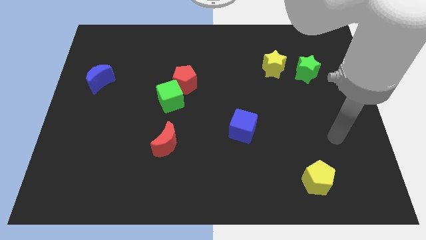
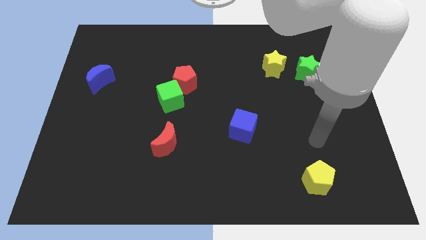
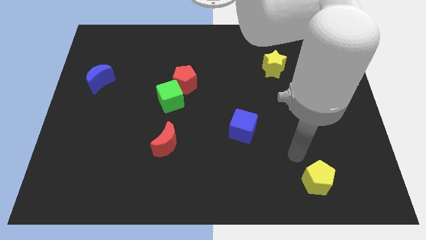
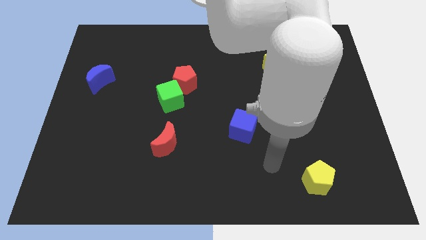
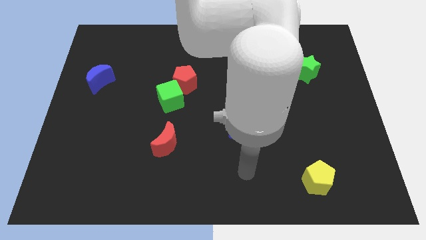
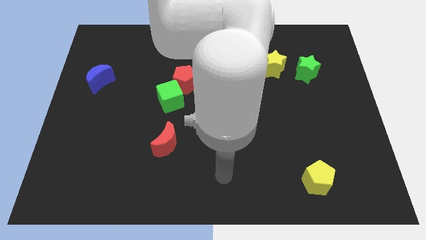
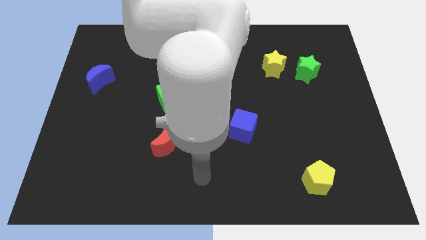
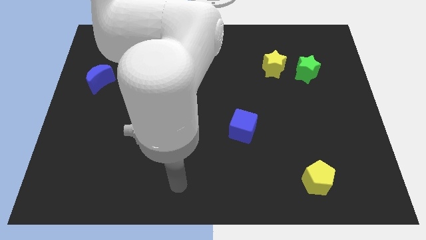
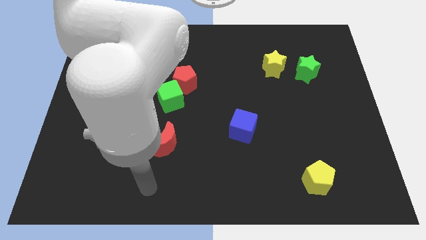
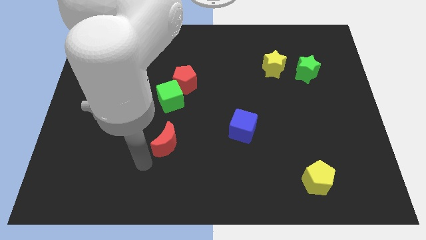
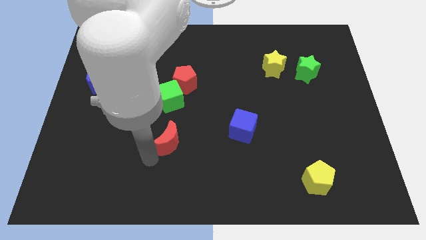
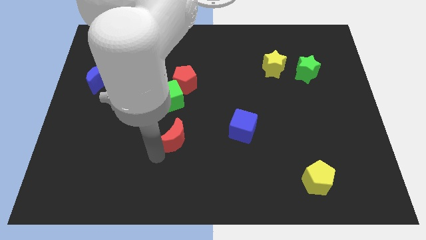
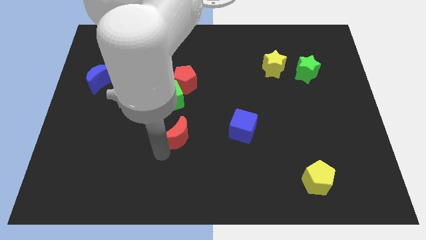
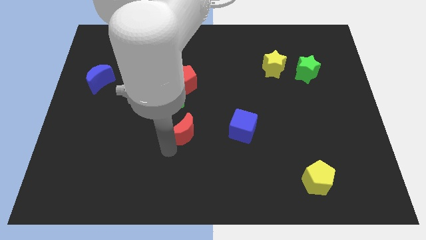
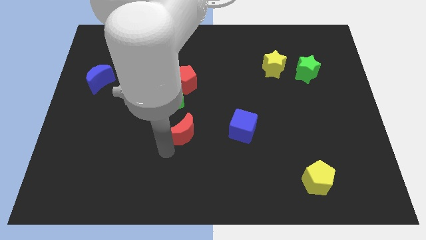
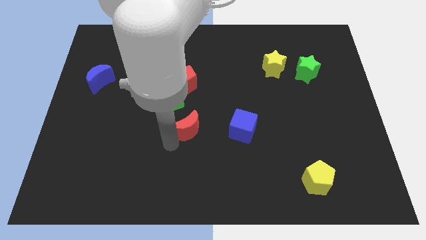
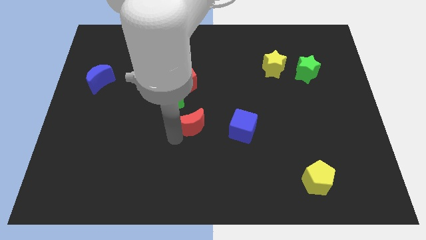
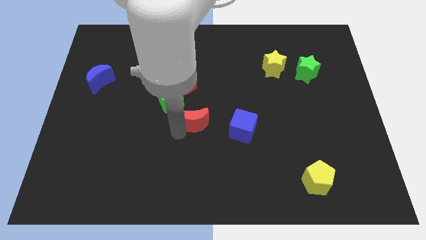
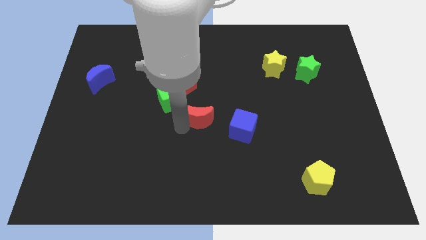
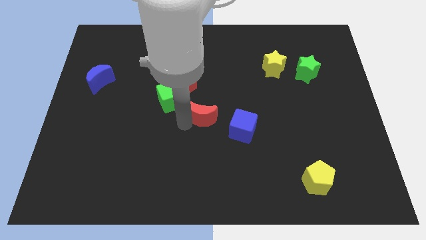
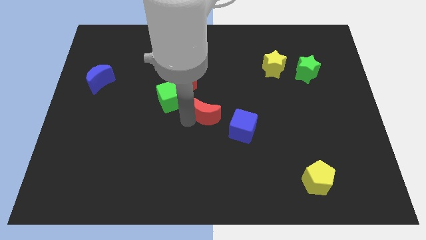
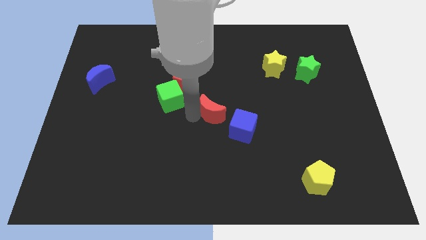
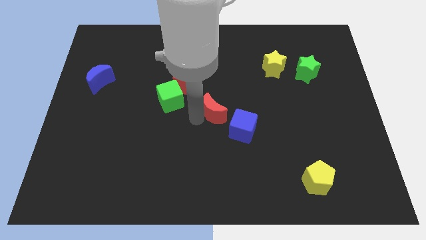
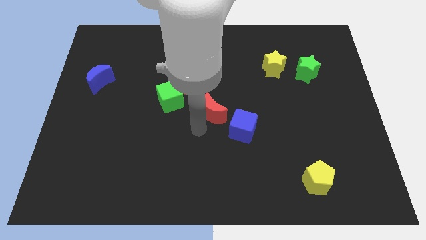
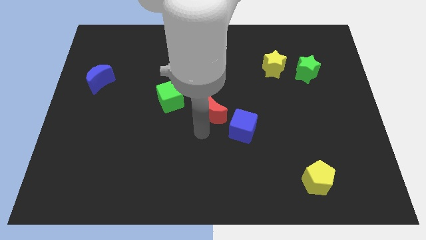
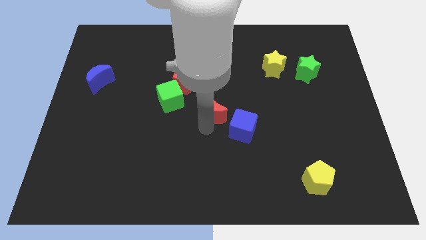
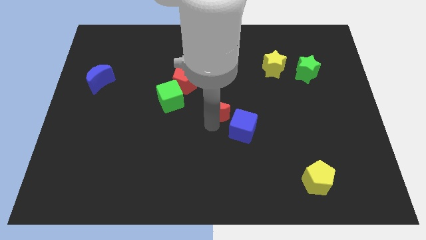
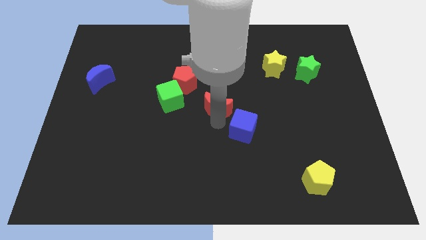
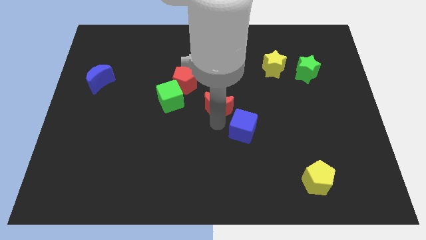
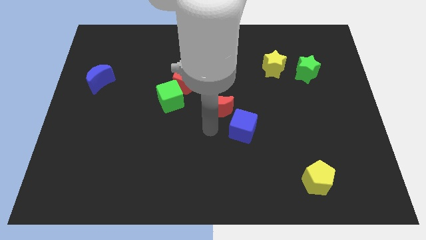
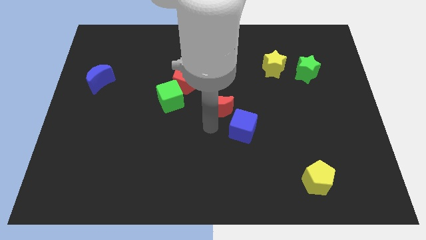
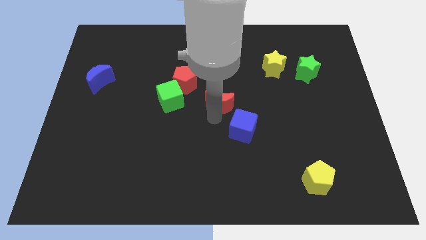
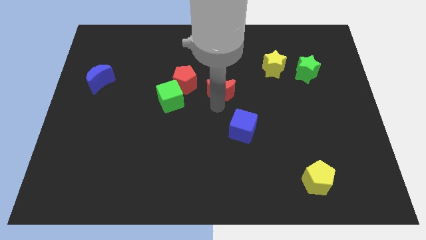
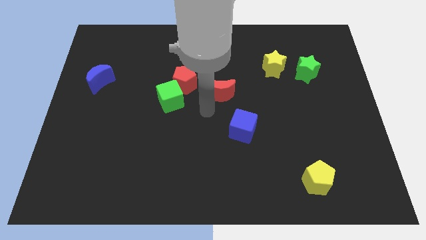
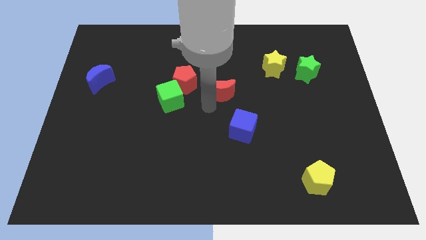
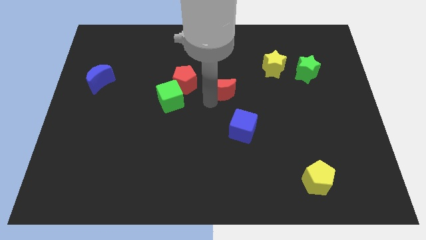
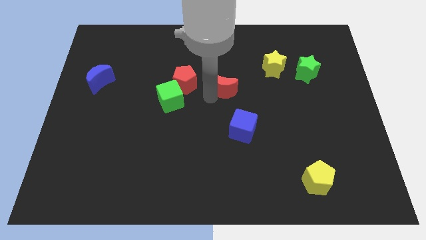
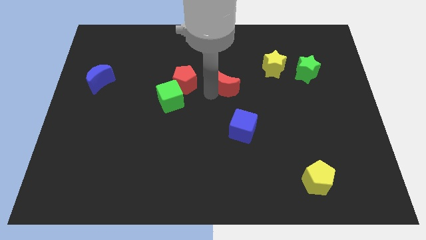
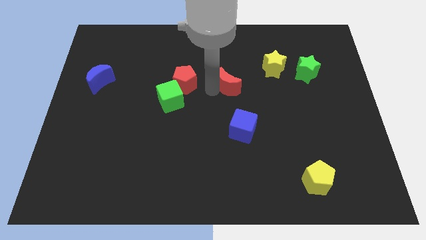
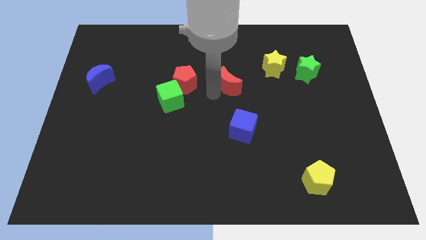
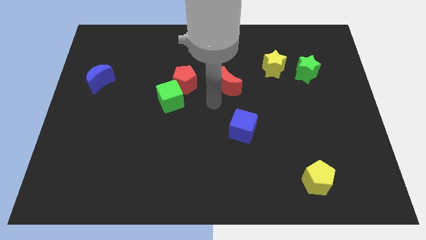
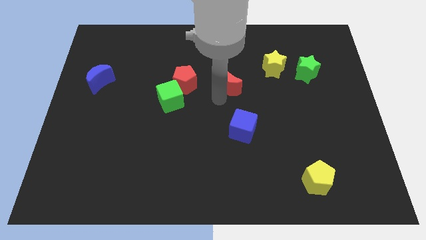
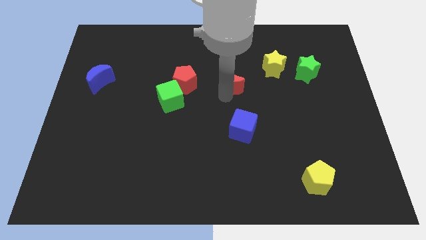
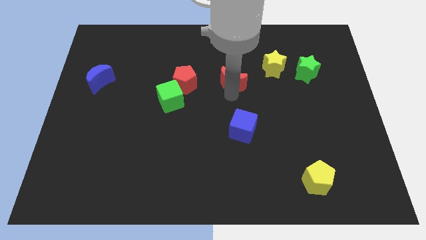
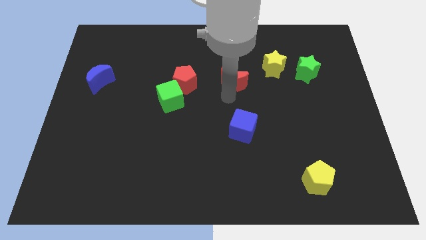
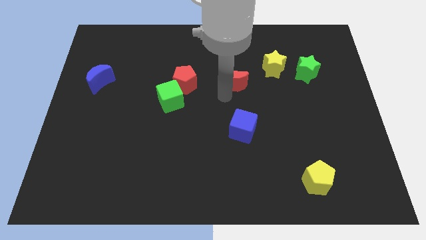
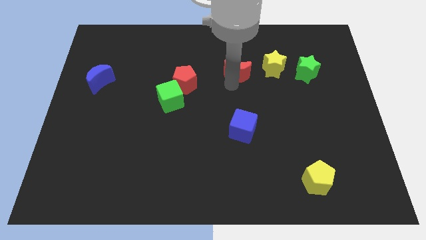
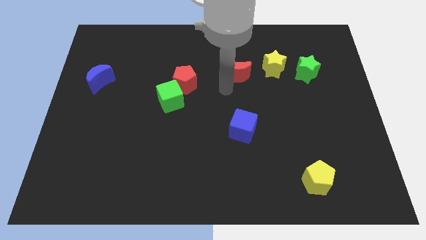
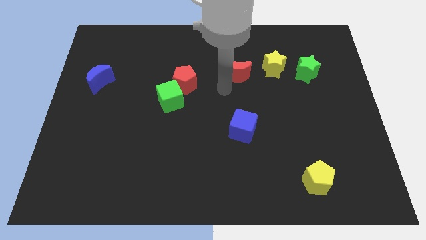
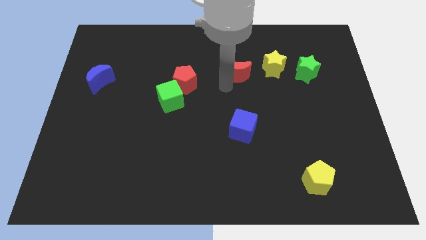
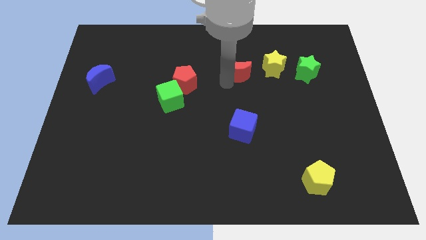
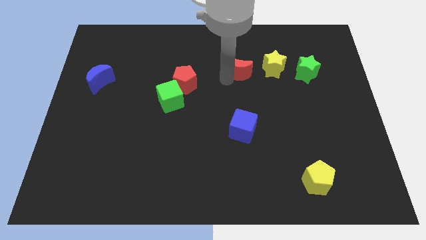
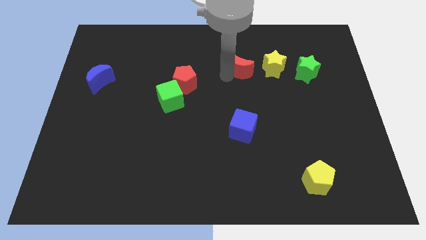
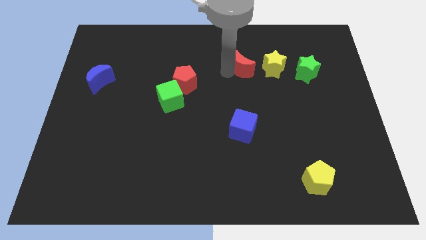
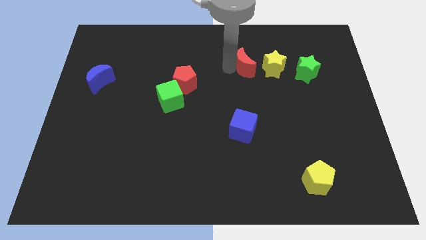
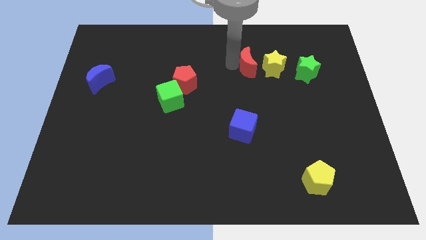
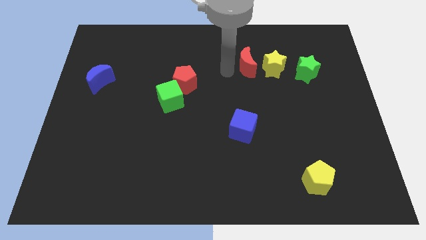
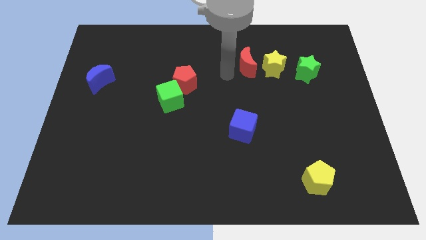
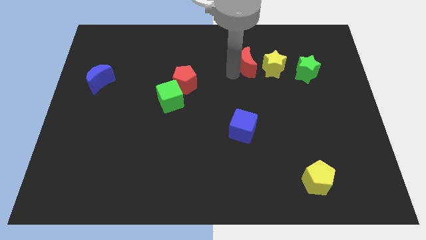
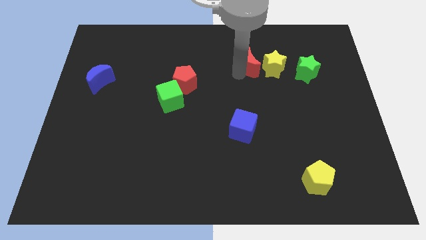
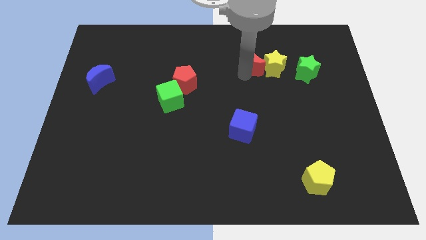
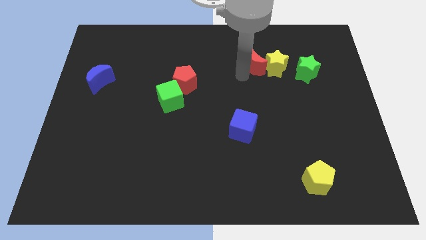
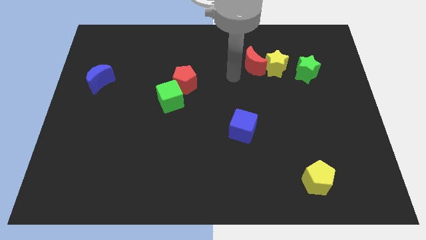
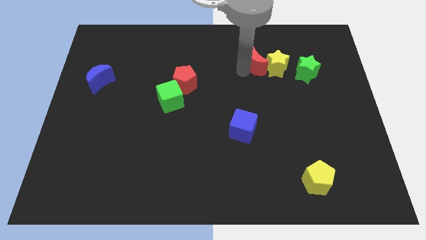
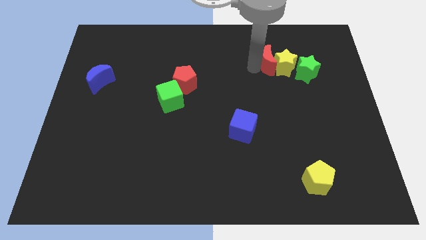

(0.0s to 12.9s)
slide the red moon to the top left of the green star

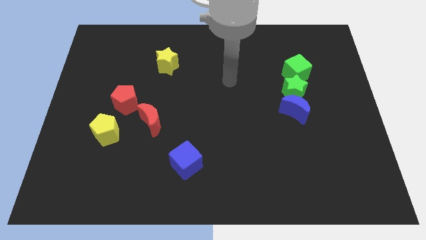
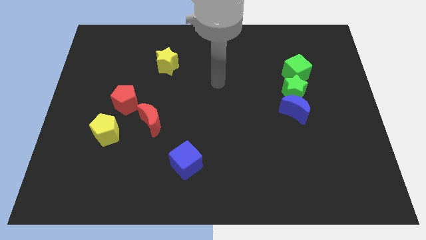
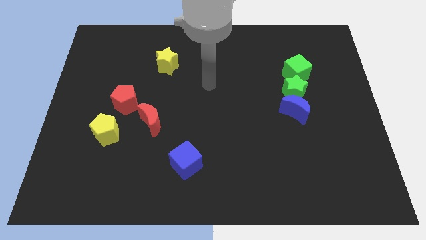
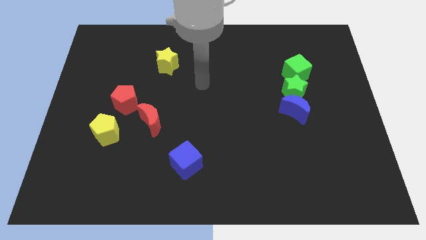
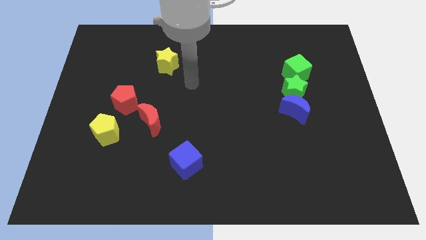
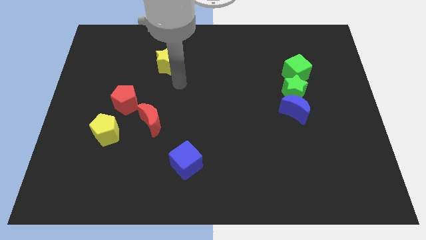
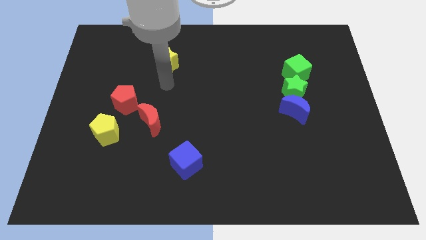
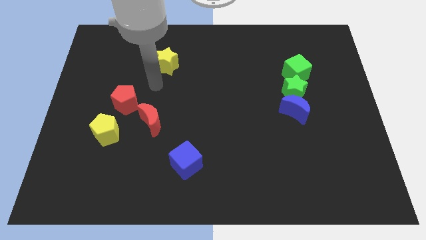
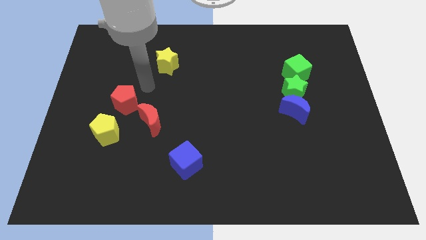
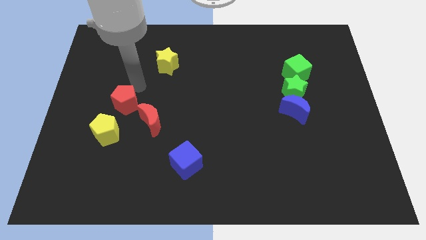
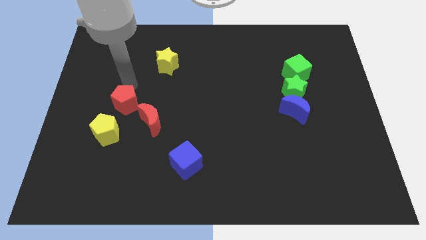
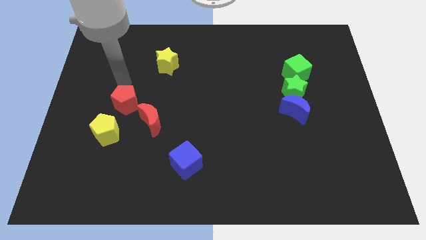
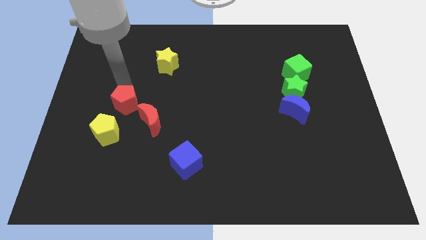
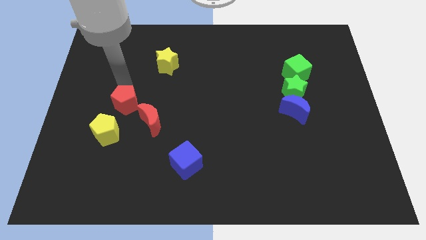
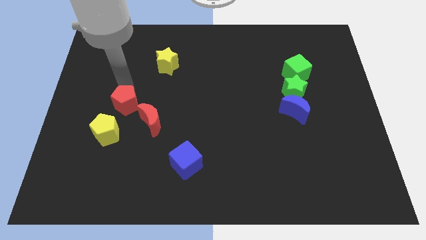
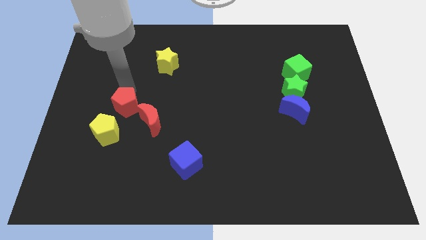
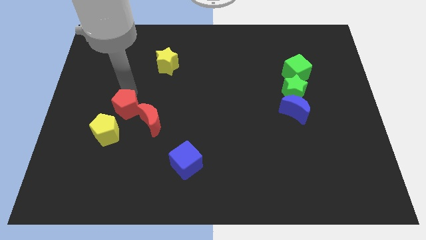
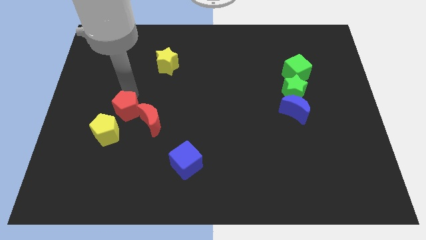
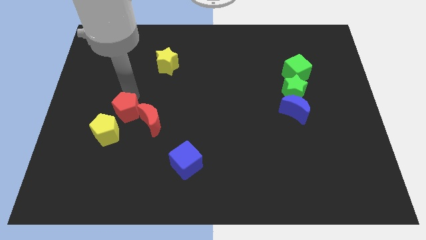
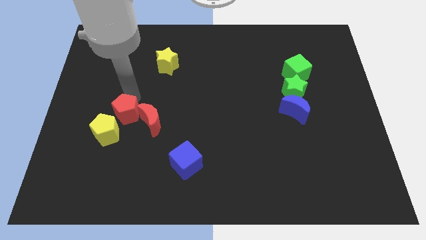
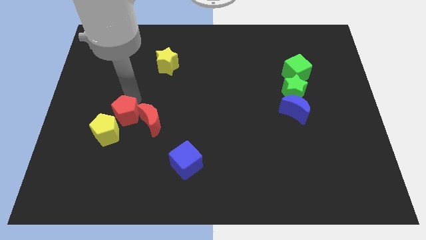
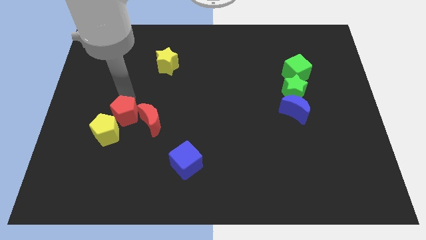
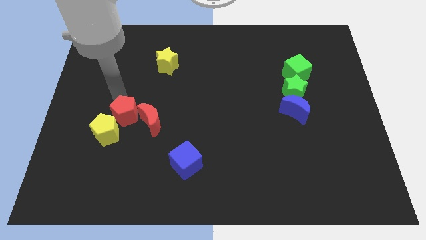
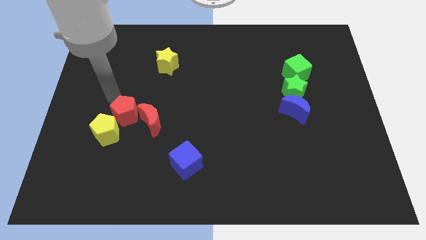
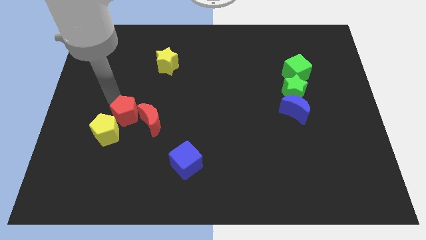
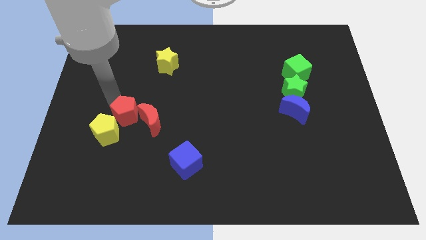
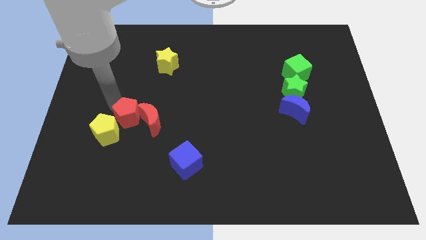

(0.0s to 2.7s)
move the red pentagon to the right side of the yellow pentagon
